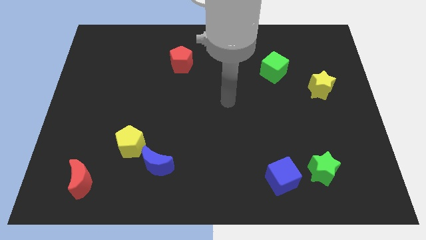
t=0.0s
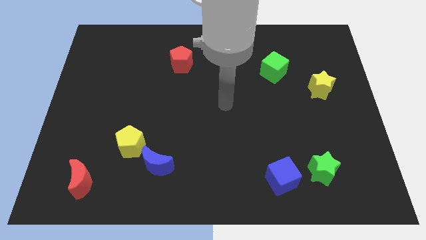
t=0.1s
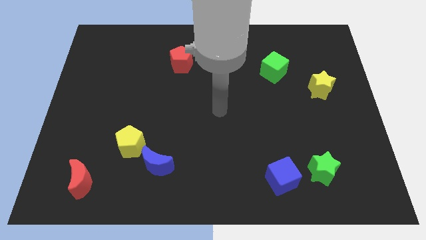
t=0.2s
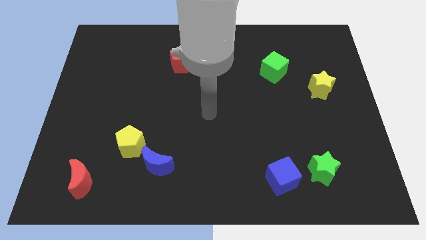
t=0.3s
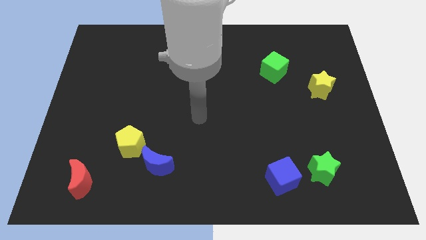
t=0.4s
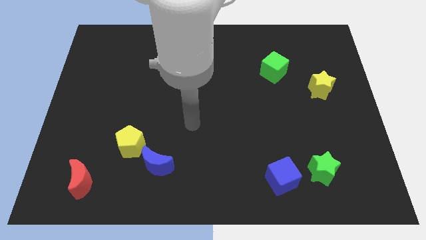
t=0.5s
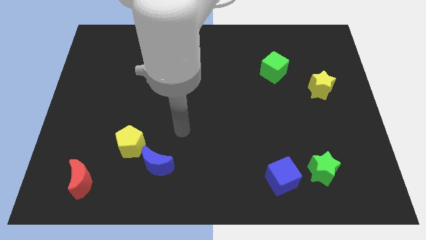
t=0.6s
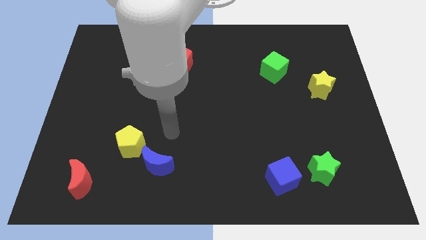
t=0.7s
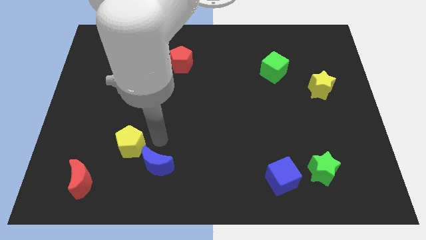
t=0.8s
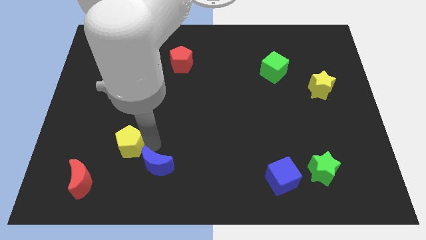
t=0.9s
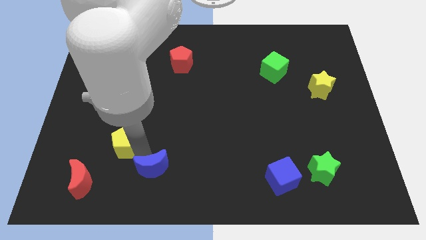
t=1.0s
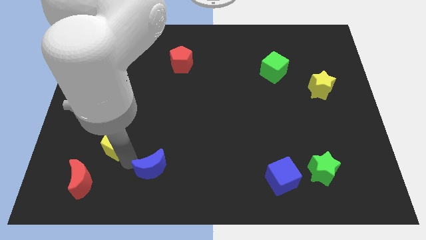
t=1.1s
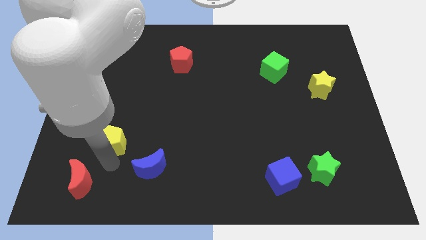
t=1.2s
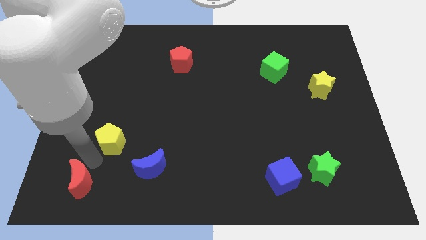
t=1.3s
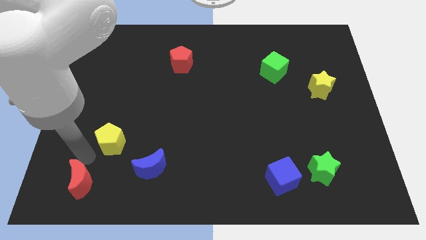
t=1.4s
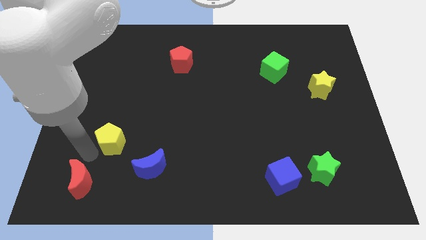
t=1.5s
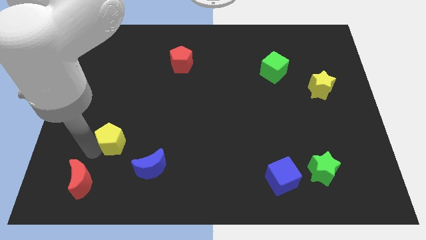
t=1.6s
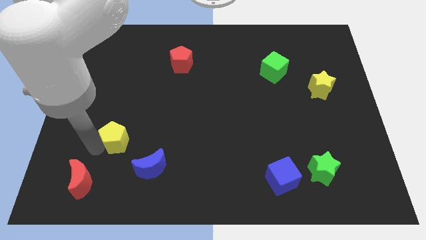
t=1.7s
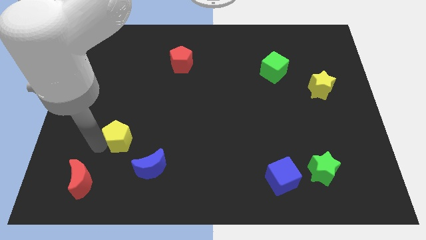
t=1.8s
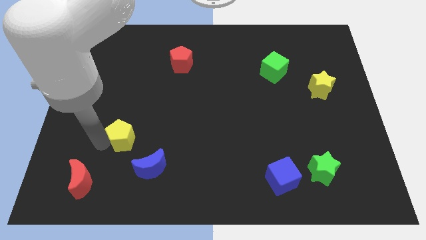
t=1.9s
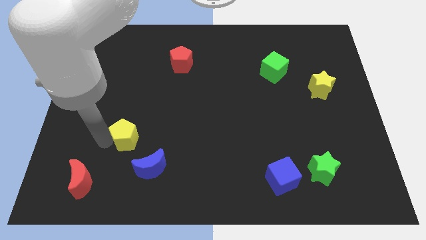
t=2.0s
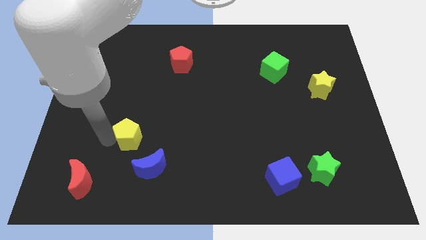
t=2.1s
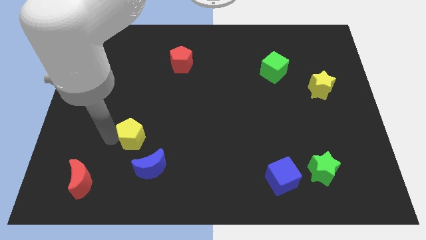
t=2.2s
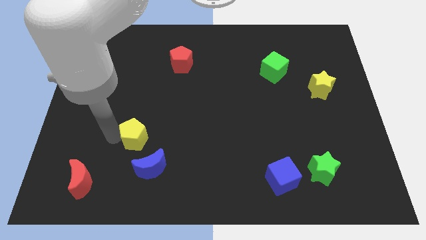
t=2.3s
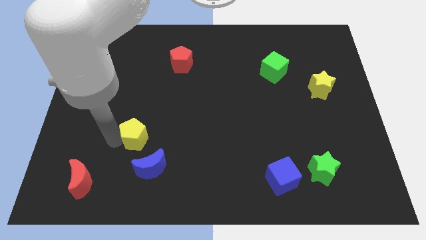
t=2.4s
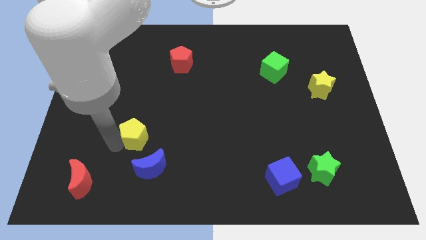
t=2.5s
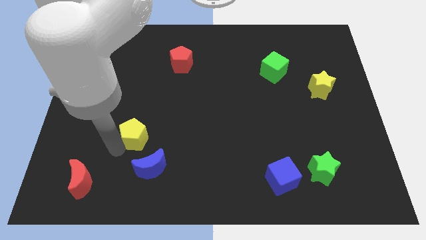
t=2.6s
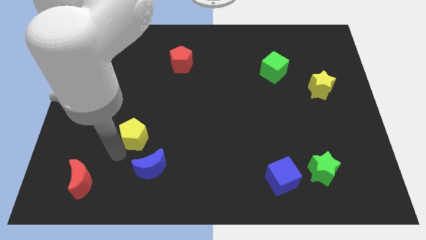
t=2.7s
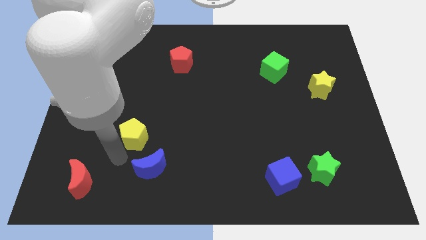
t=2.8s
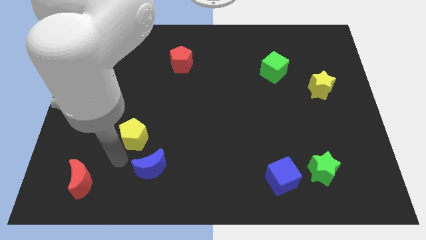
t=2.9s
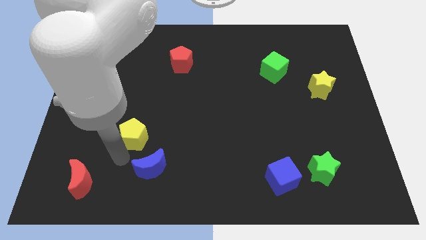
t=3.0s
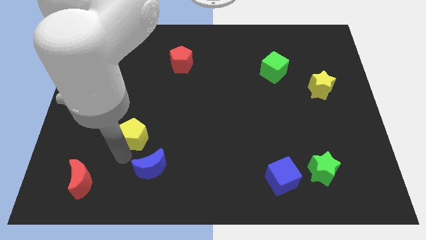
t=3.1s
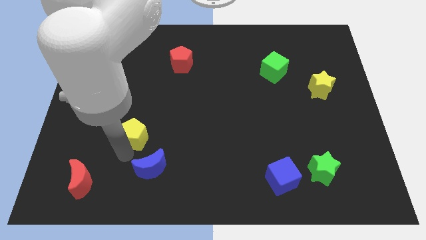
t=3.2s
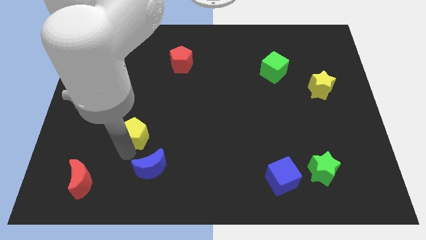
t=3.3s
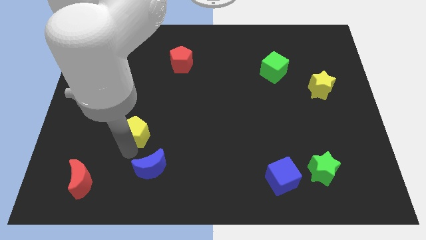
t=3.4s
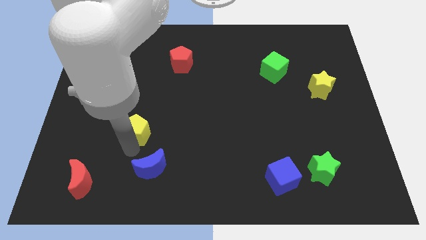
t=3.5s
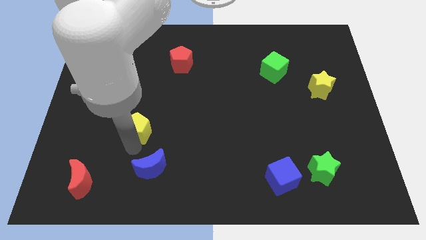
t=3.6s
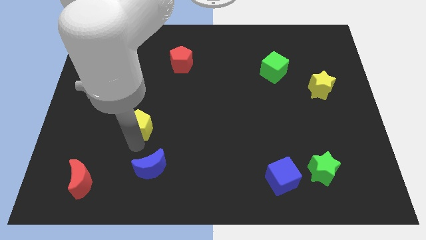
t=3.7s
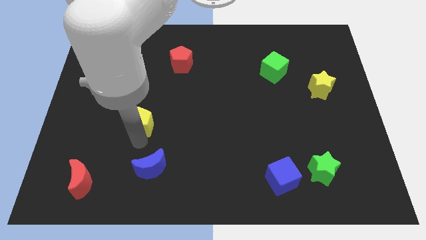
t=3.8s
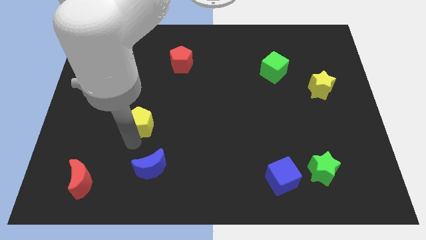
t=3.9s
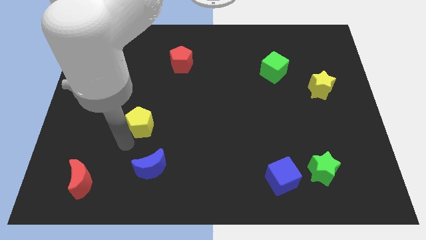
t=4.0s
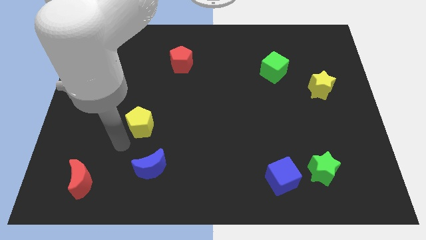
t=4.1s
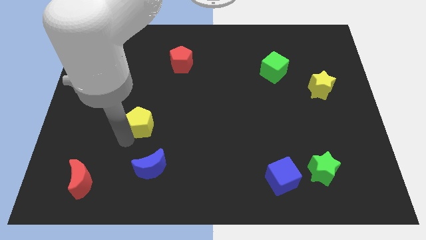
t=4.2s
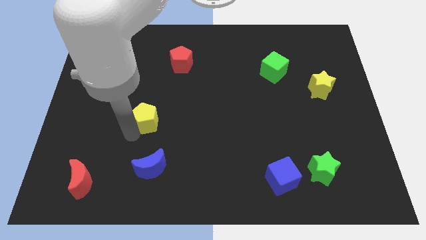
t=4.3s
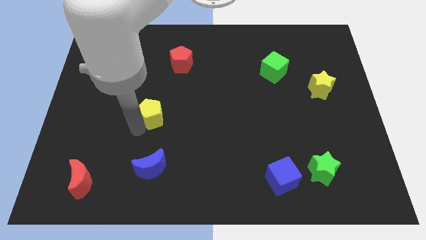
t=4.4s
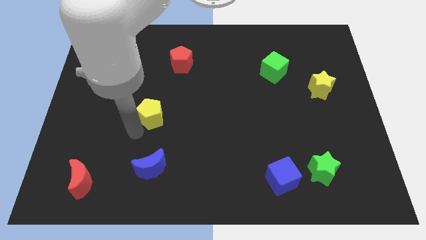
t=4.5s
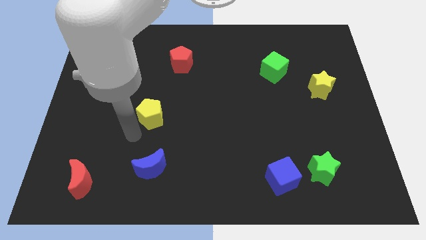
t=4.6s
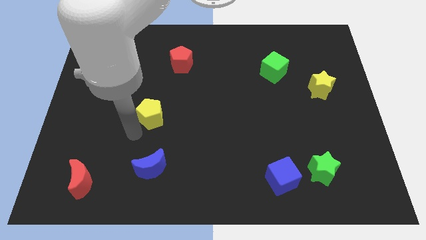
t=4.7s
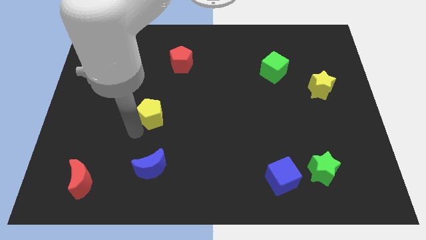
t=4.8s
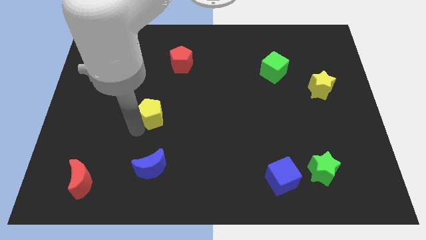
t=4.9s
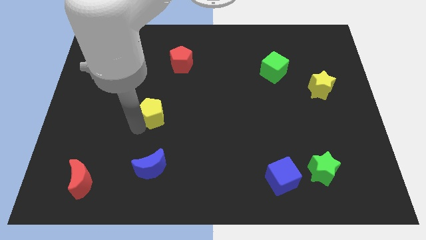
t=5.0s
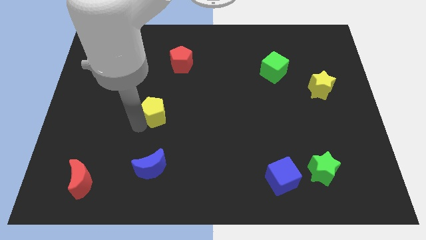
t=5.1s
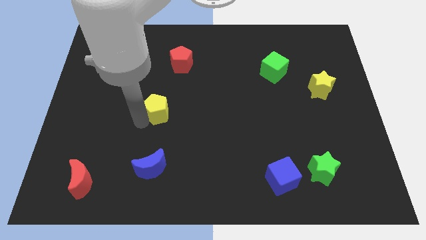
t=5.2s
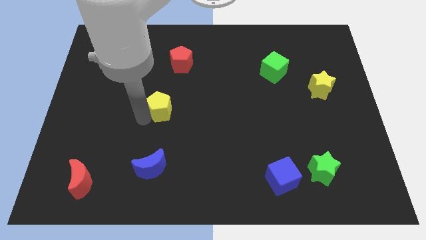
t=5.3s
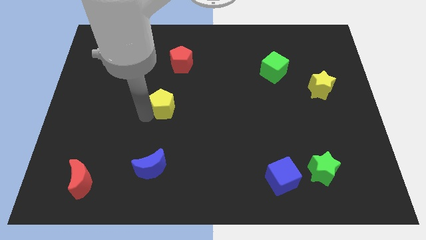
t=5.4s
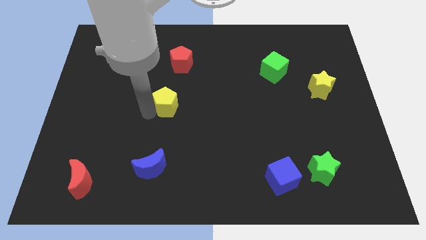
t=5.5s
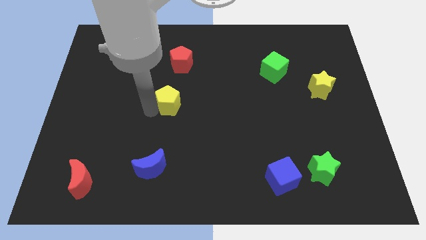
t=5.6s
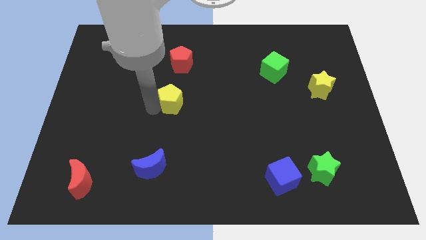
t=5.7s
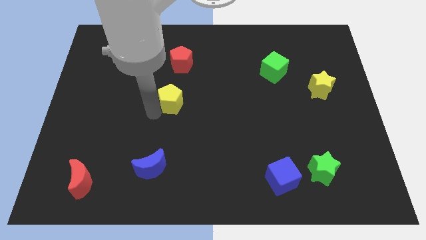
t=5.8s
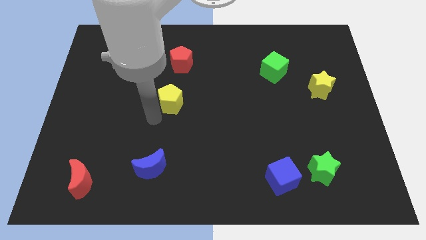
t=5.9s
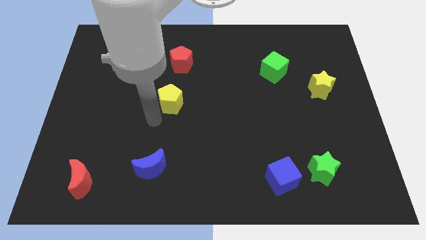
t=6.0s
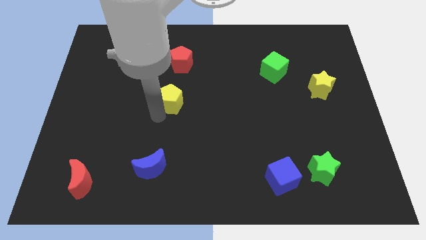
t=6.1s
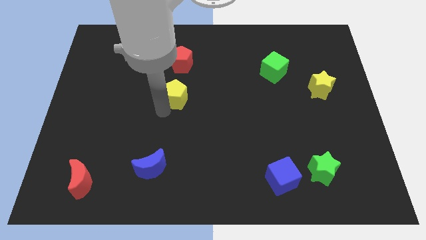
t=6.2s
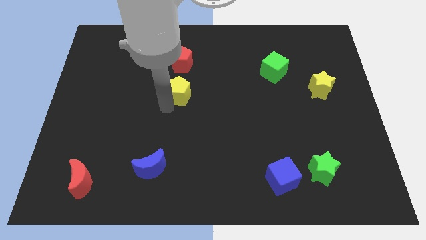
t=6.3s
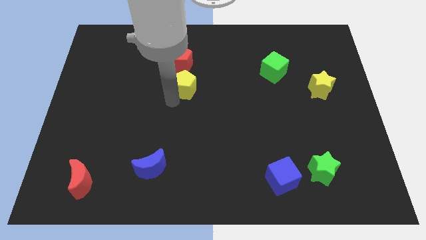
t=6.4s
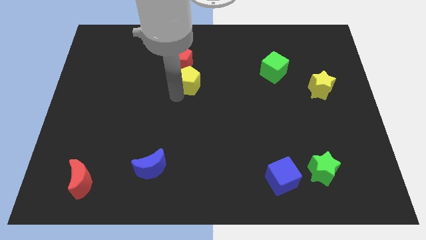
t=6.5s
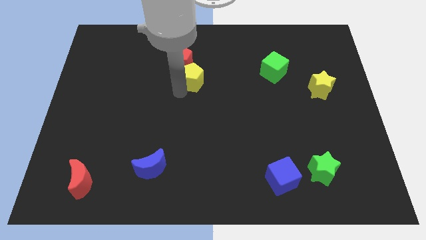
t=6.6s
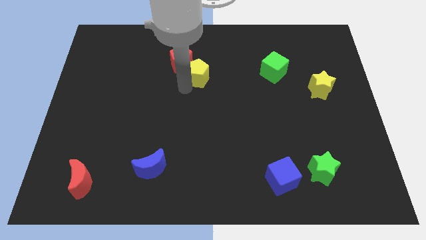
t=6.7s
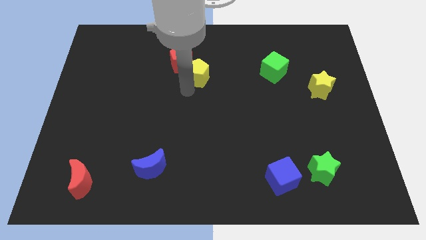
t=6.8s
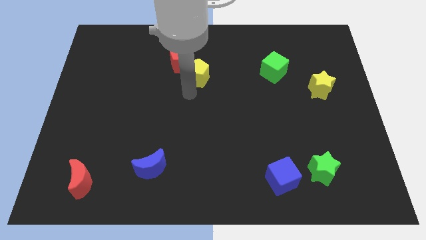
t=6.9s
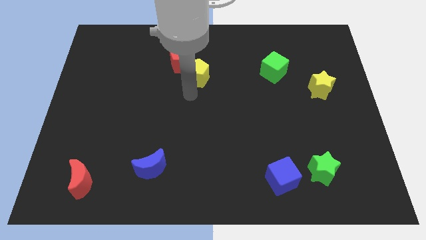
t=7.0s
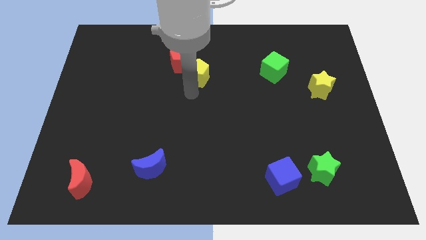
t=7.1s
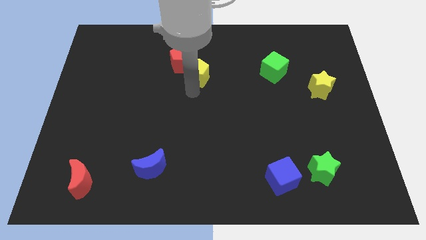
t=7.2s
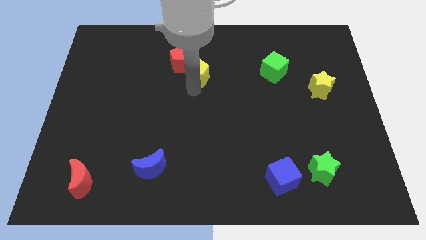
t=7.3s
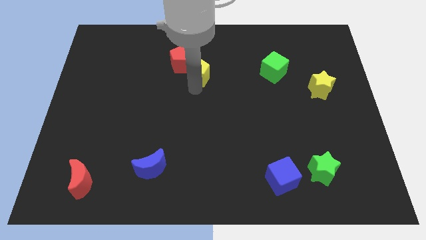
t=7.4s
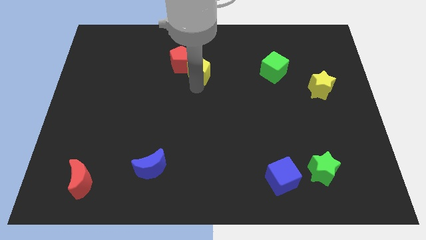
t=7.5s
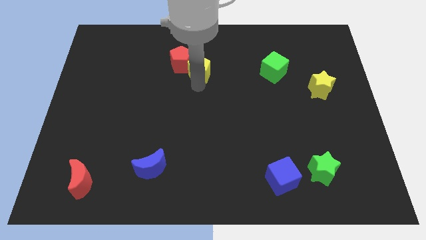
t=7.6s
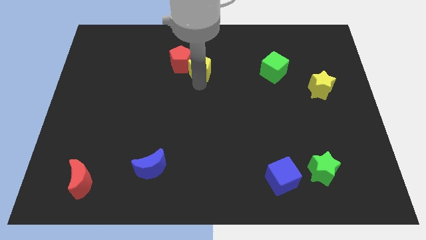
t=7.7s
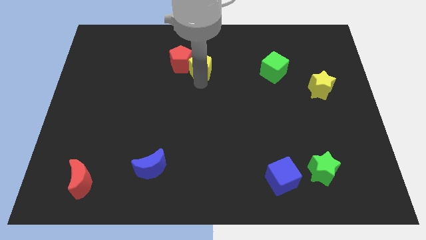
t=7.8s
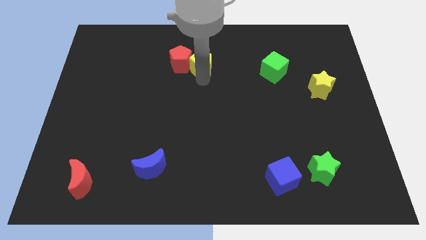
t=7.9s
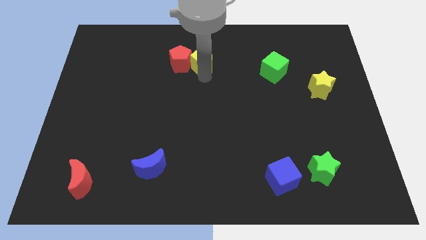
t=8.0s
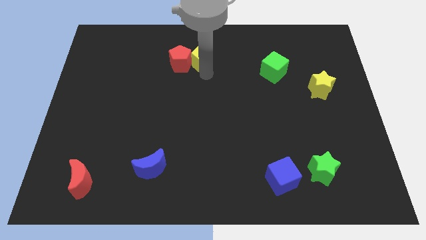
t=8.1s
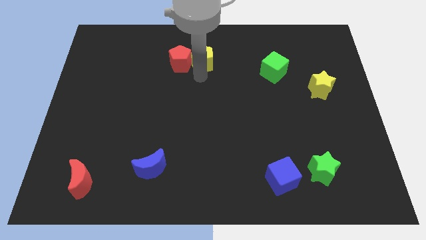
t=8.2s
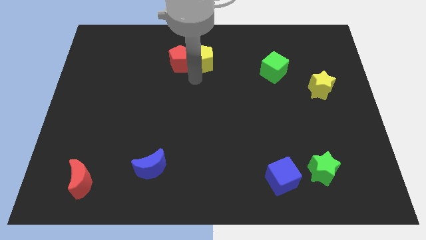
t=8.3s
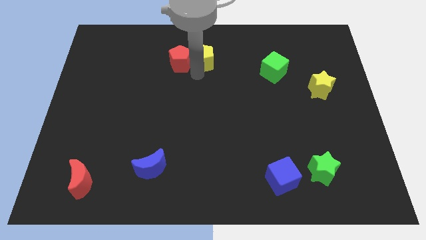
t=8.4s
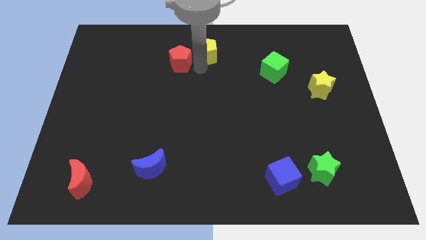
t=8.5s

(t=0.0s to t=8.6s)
slide the yellow pentagon to the towards your base
